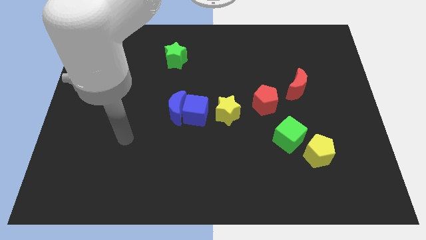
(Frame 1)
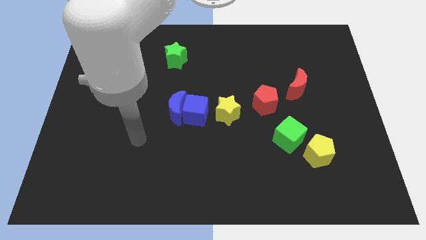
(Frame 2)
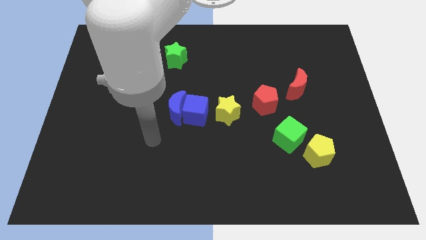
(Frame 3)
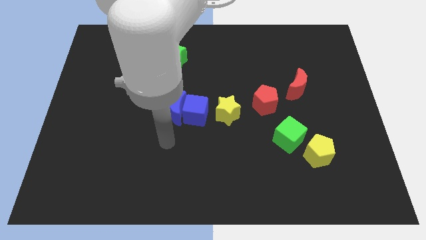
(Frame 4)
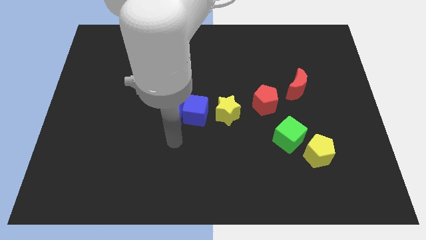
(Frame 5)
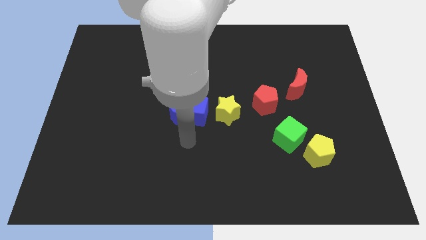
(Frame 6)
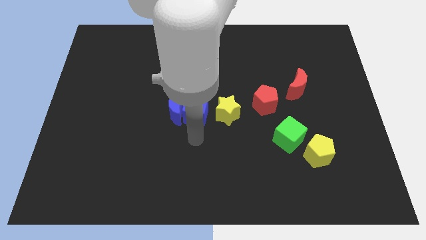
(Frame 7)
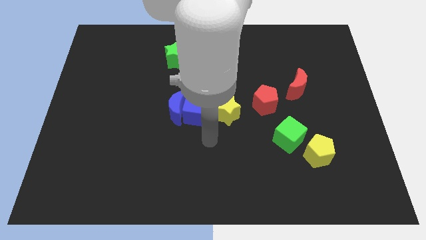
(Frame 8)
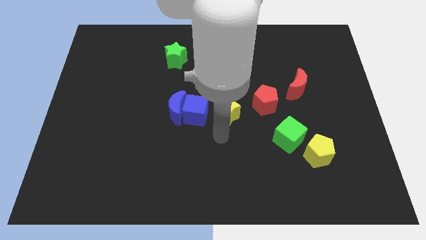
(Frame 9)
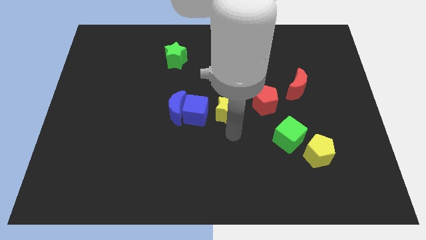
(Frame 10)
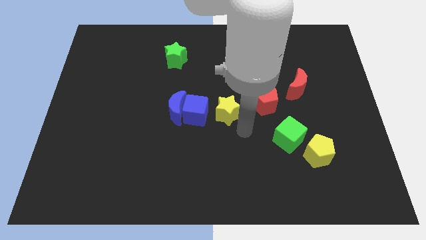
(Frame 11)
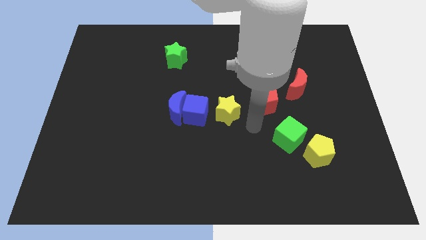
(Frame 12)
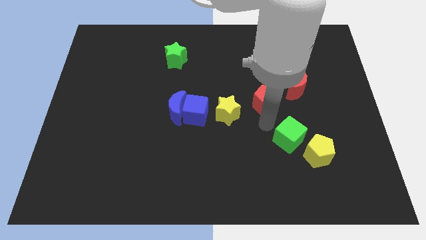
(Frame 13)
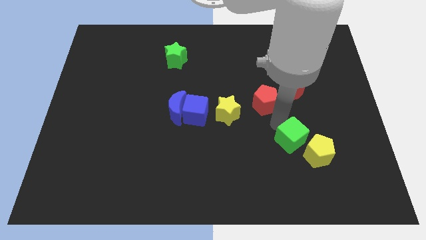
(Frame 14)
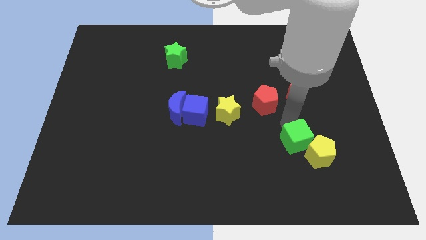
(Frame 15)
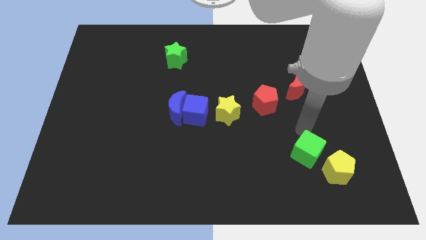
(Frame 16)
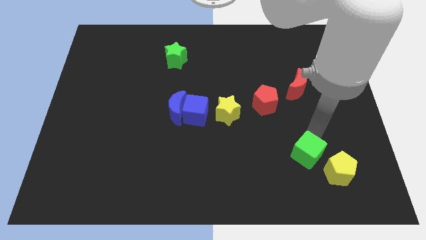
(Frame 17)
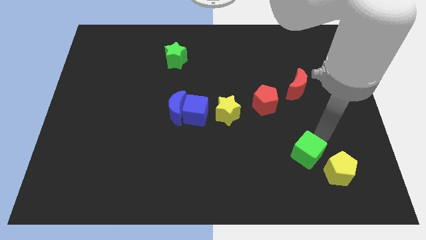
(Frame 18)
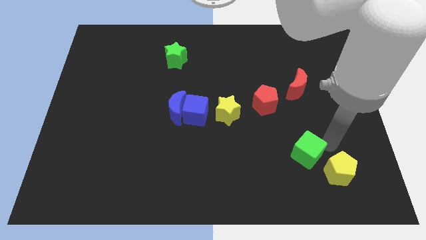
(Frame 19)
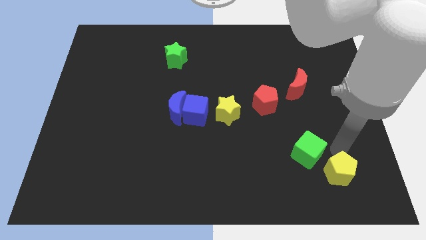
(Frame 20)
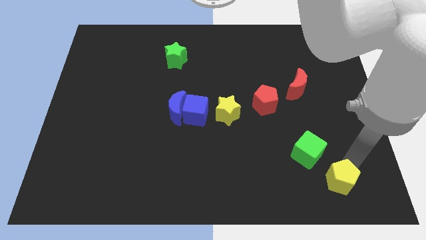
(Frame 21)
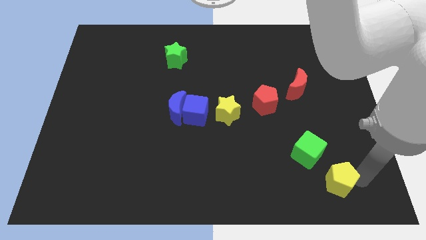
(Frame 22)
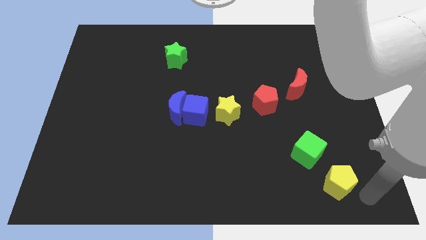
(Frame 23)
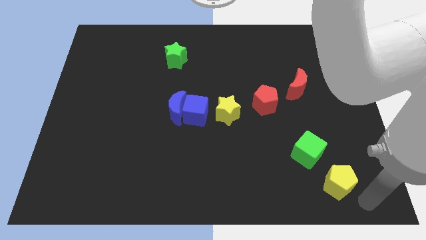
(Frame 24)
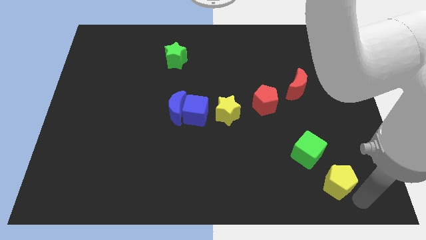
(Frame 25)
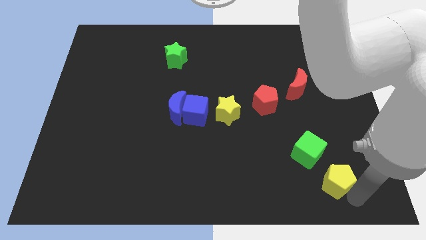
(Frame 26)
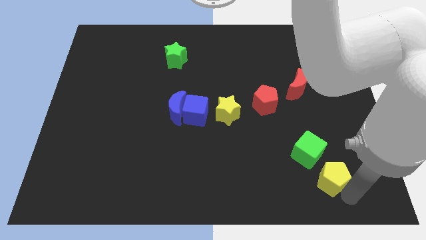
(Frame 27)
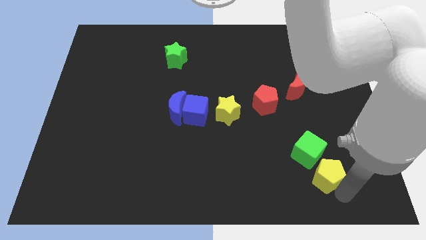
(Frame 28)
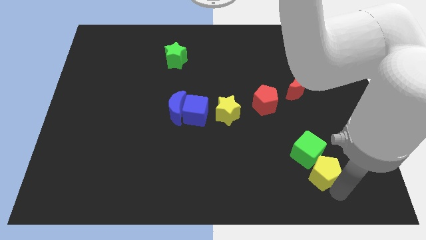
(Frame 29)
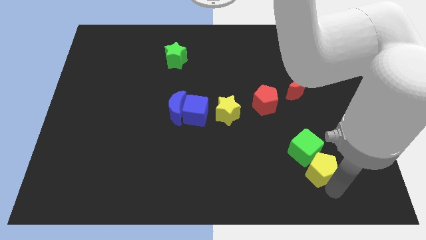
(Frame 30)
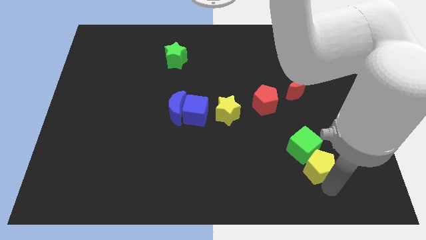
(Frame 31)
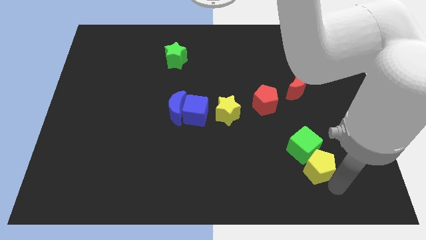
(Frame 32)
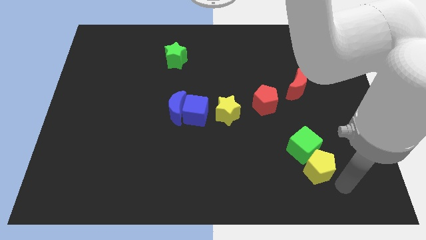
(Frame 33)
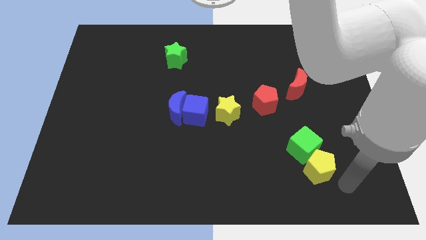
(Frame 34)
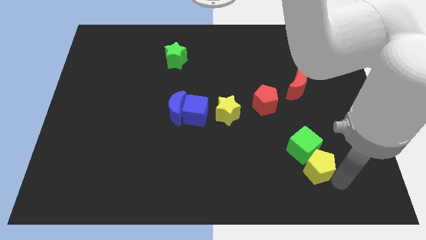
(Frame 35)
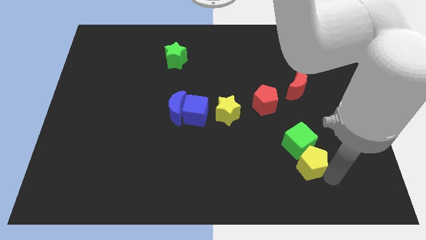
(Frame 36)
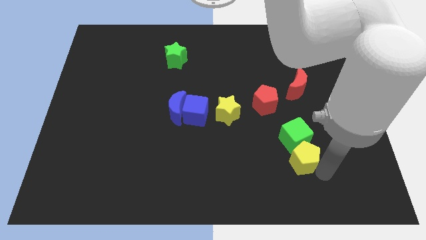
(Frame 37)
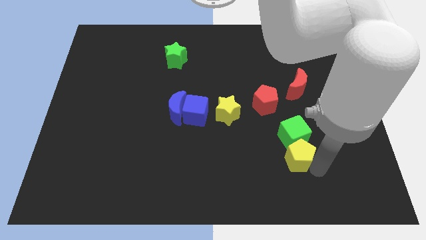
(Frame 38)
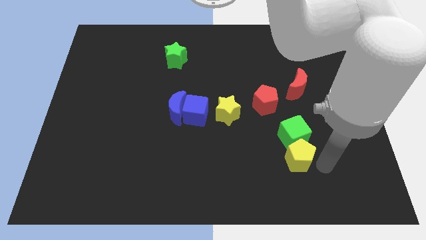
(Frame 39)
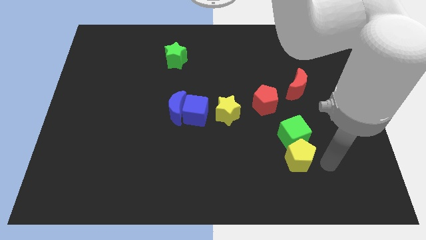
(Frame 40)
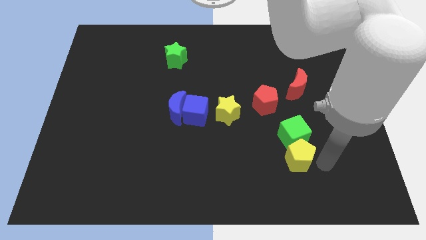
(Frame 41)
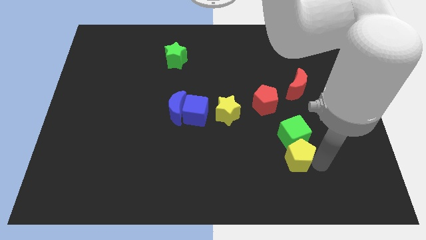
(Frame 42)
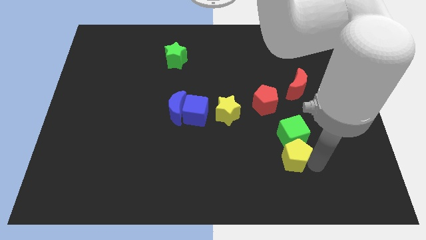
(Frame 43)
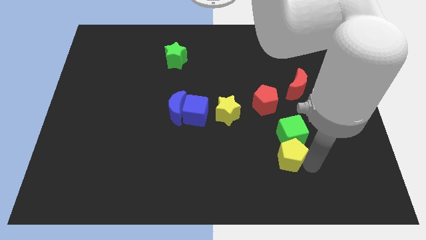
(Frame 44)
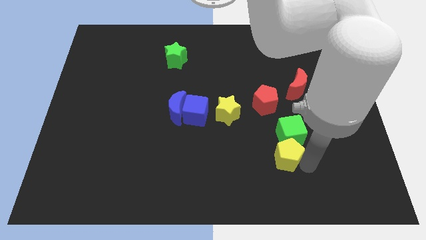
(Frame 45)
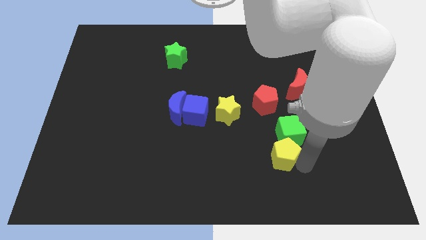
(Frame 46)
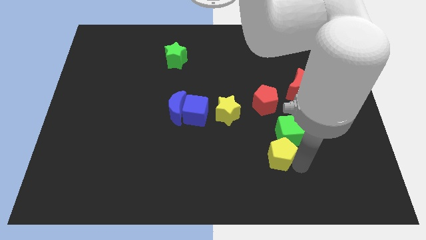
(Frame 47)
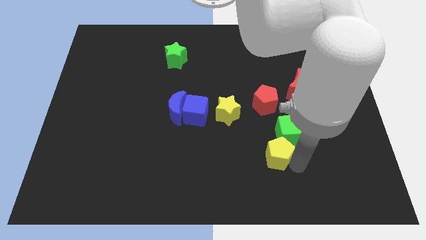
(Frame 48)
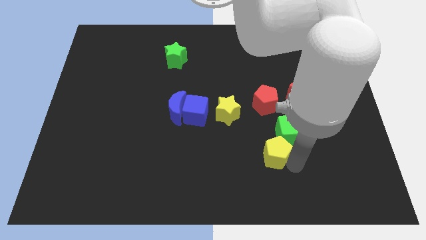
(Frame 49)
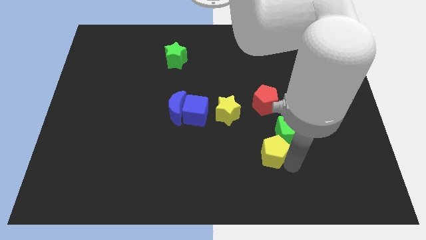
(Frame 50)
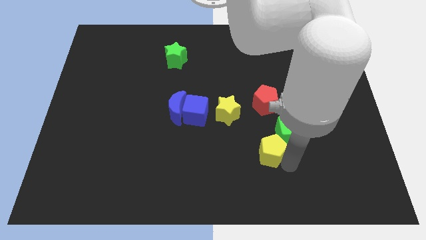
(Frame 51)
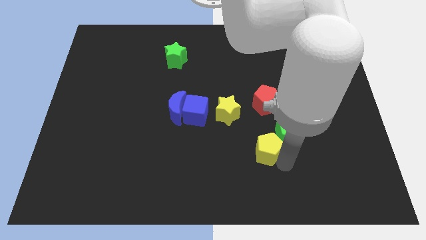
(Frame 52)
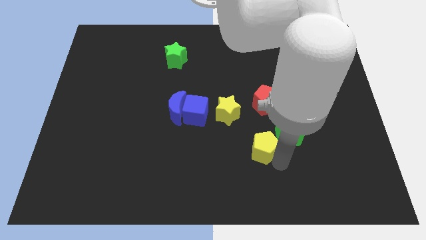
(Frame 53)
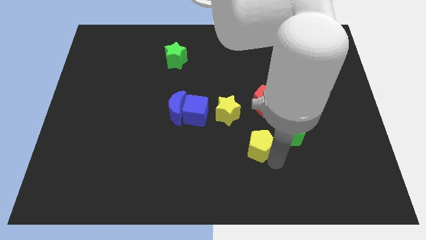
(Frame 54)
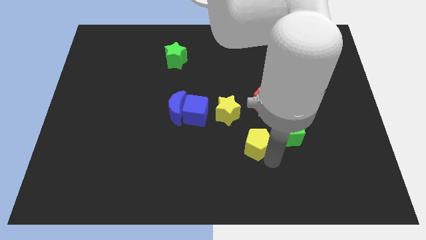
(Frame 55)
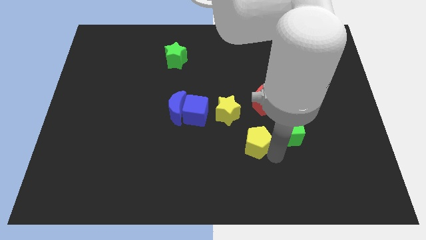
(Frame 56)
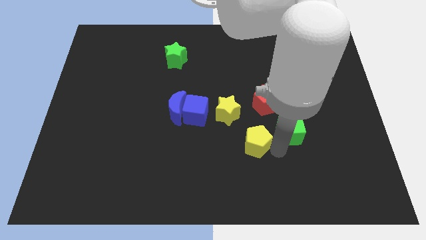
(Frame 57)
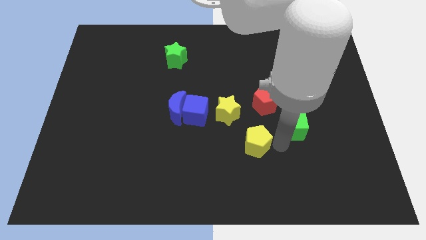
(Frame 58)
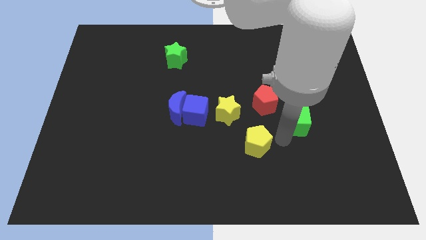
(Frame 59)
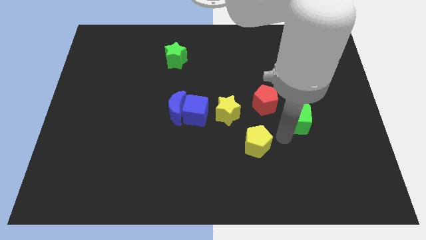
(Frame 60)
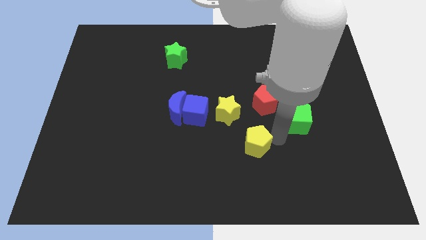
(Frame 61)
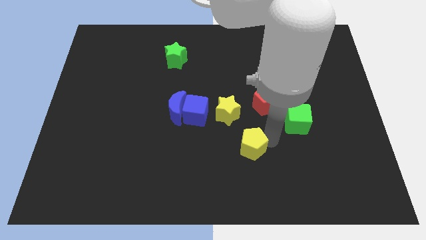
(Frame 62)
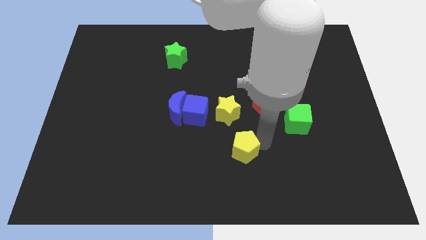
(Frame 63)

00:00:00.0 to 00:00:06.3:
slide the yellow pentagon below the yellow star

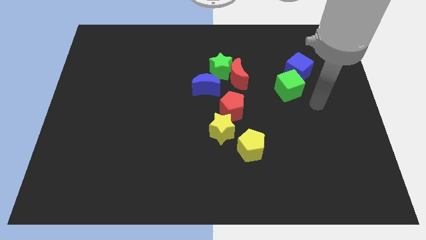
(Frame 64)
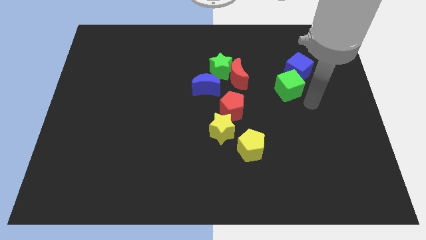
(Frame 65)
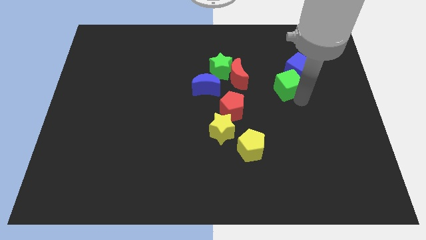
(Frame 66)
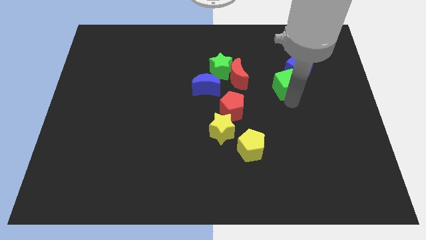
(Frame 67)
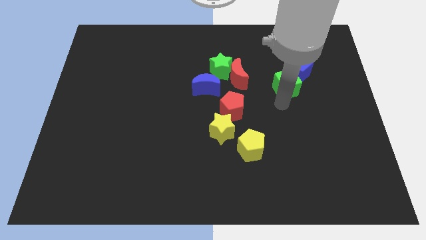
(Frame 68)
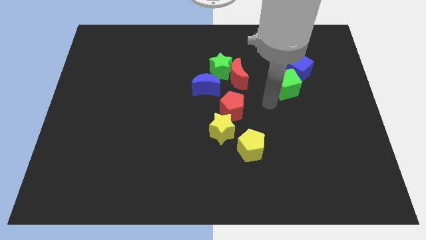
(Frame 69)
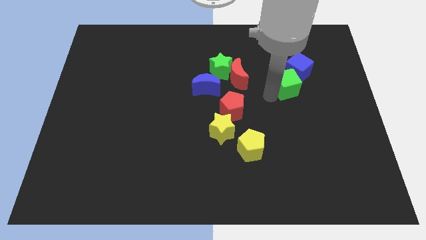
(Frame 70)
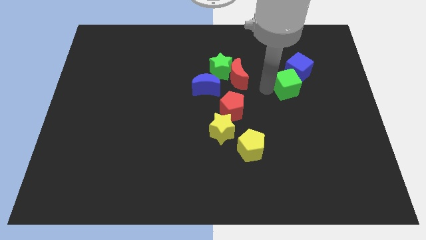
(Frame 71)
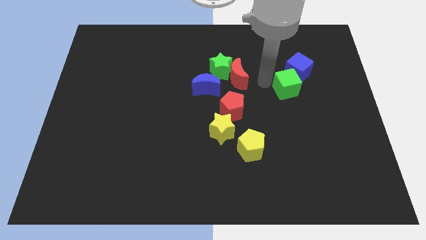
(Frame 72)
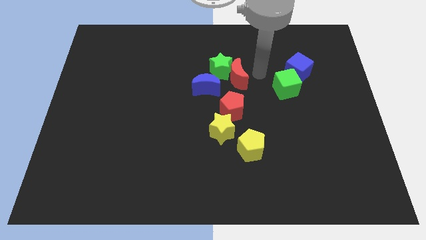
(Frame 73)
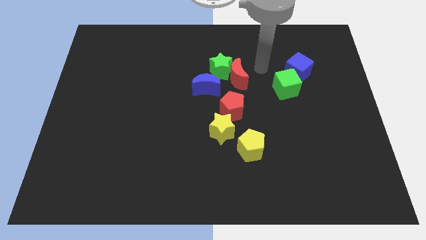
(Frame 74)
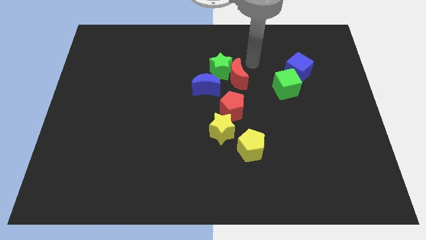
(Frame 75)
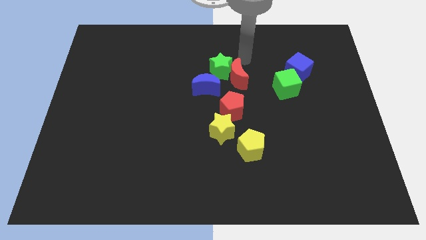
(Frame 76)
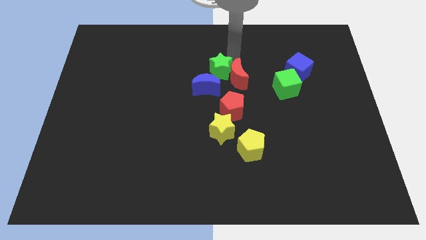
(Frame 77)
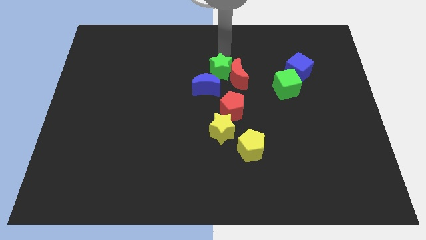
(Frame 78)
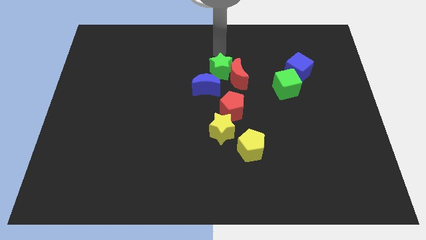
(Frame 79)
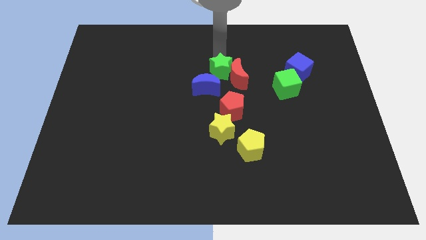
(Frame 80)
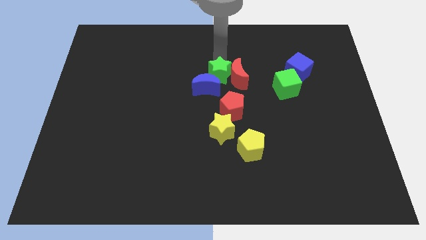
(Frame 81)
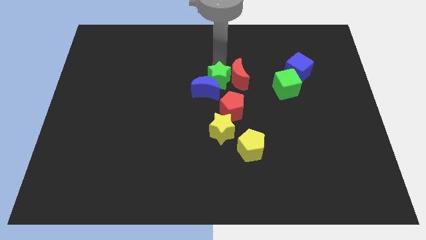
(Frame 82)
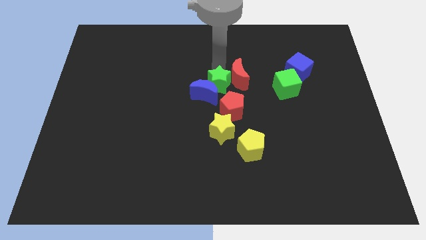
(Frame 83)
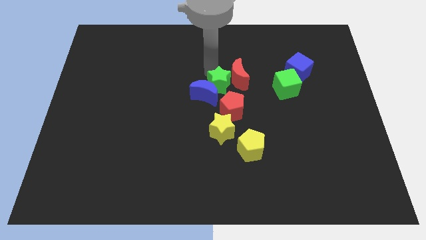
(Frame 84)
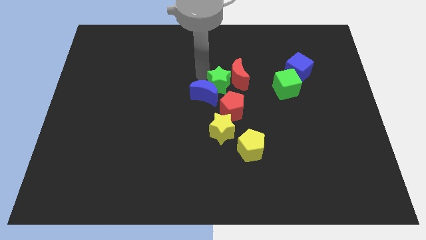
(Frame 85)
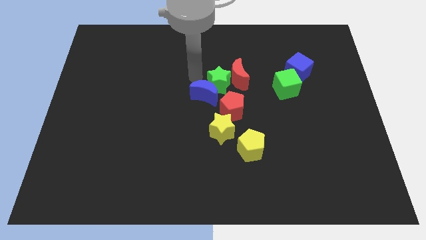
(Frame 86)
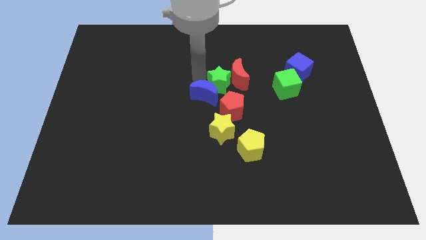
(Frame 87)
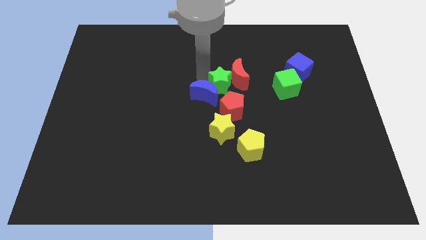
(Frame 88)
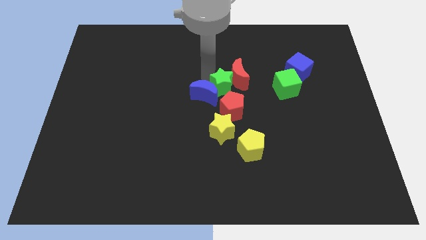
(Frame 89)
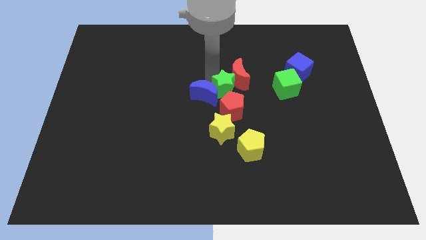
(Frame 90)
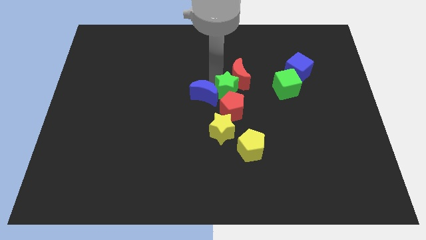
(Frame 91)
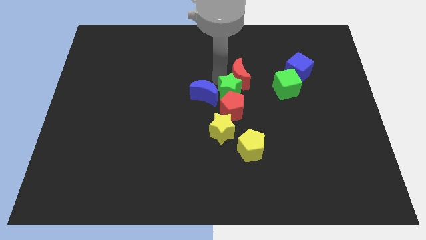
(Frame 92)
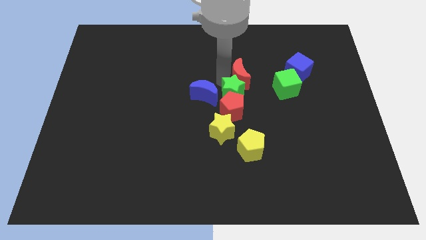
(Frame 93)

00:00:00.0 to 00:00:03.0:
push the green star diagonally down and to the right of the red moon
